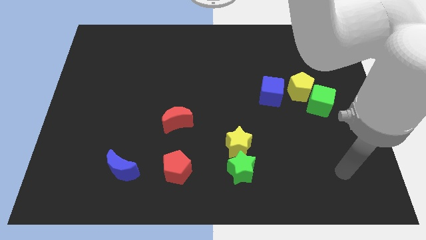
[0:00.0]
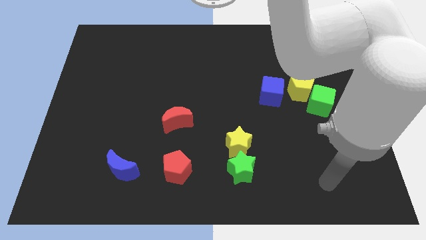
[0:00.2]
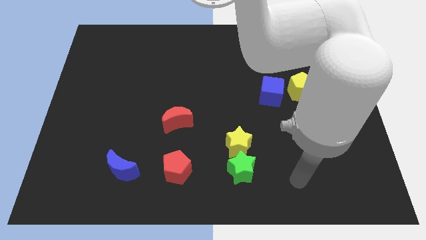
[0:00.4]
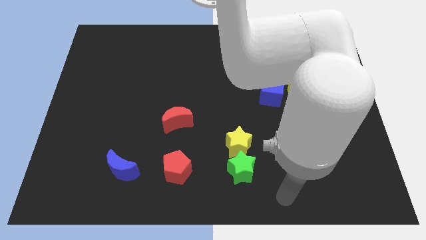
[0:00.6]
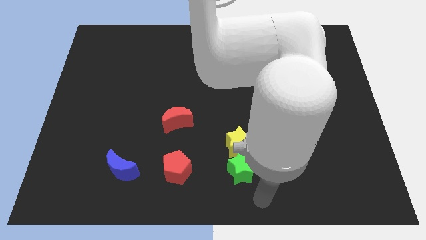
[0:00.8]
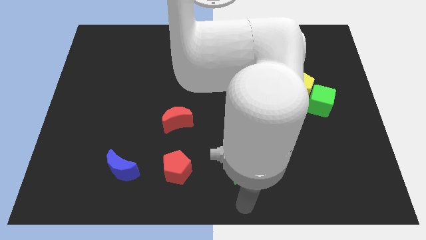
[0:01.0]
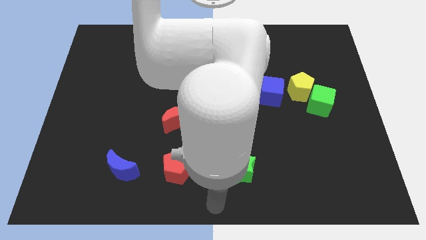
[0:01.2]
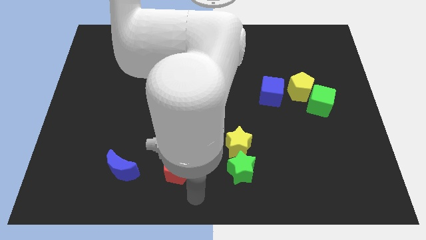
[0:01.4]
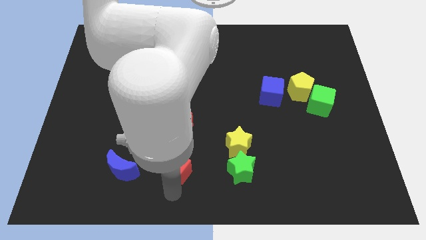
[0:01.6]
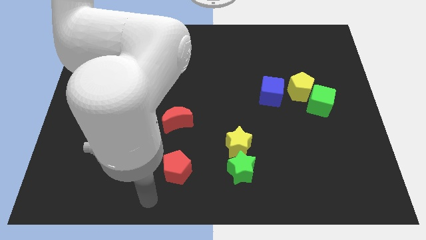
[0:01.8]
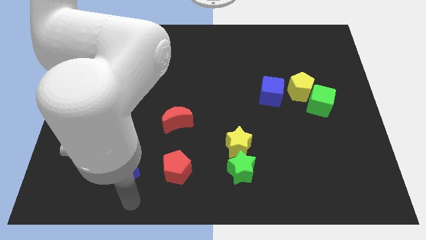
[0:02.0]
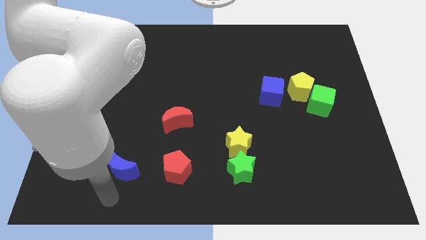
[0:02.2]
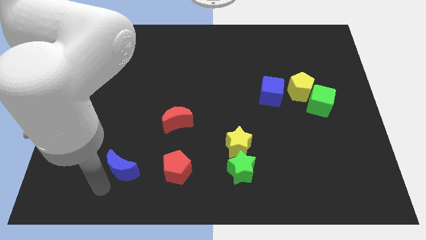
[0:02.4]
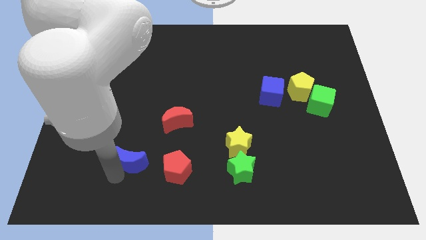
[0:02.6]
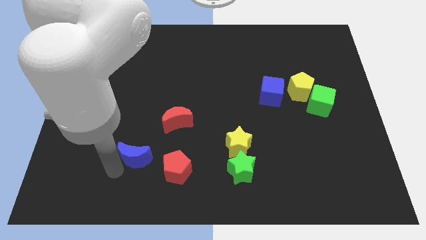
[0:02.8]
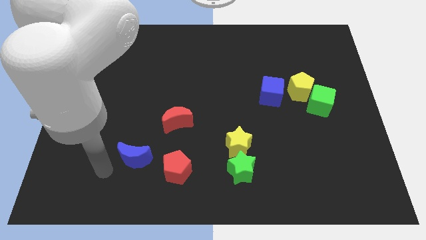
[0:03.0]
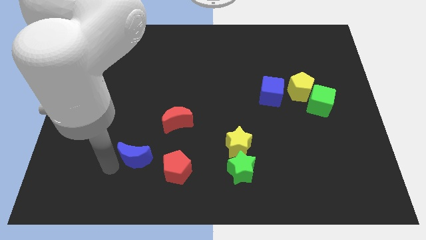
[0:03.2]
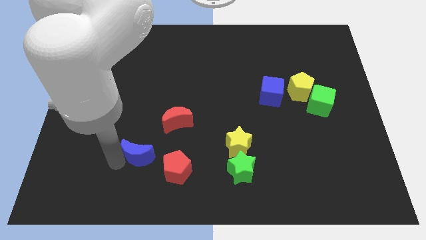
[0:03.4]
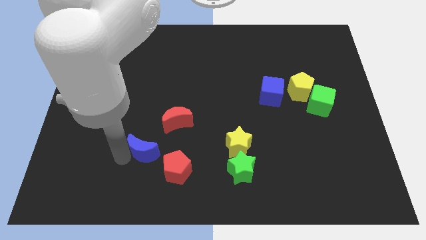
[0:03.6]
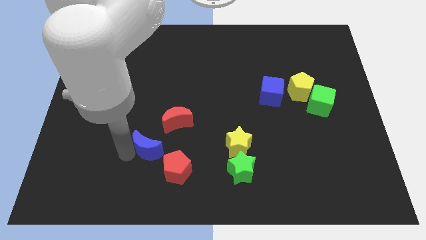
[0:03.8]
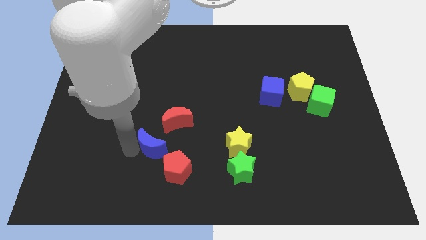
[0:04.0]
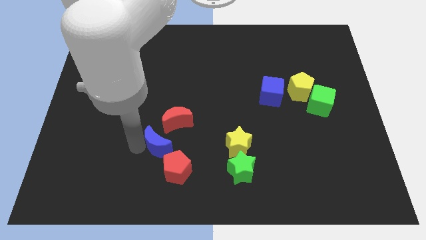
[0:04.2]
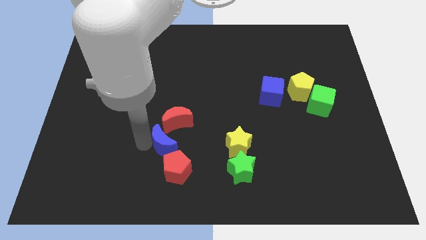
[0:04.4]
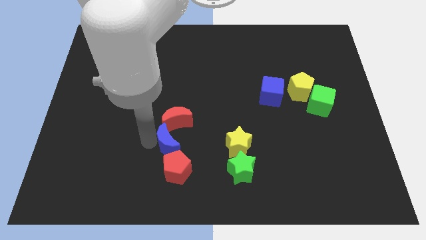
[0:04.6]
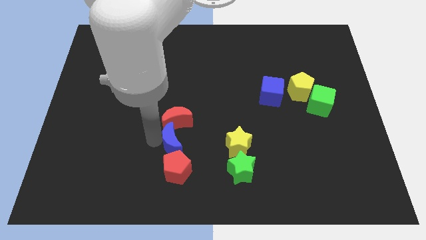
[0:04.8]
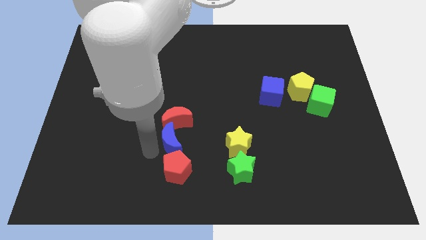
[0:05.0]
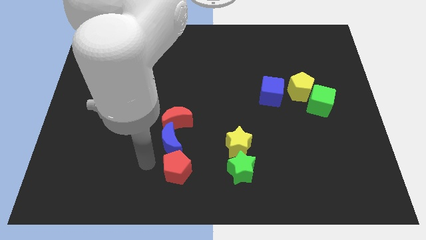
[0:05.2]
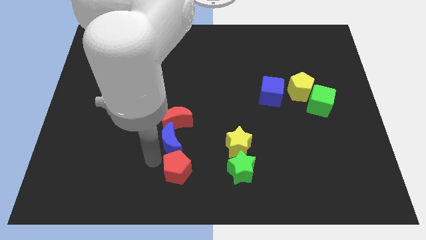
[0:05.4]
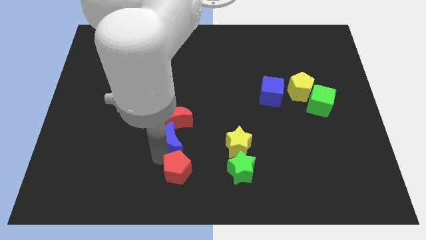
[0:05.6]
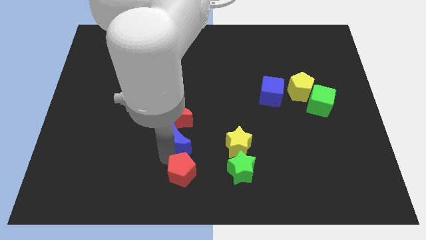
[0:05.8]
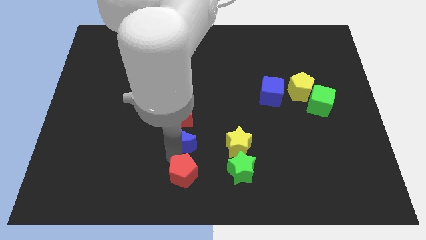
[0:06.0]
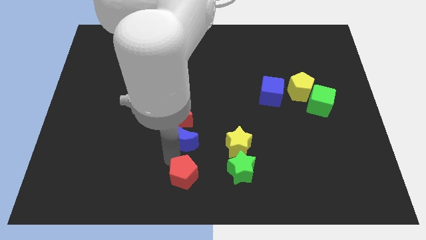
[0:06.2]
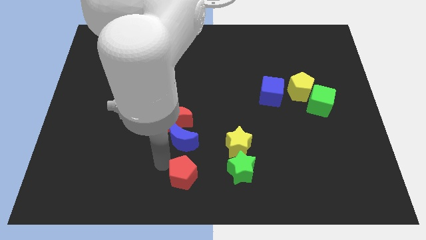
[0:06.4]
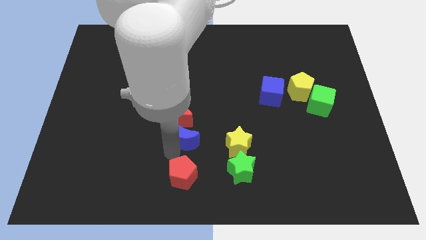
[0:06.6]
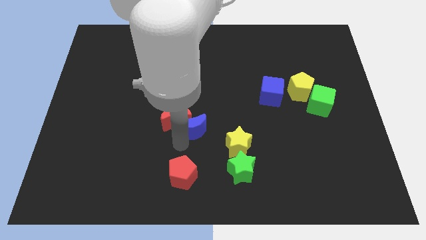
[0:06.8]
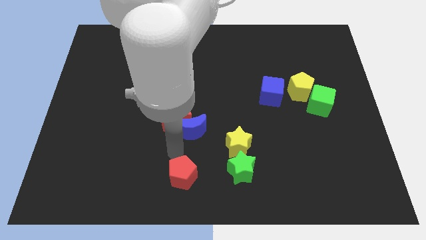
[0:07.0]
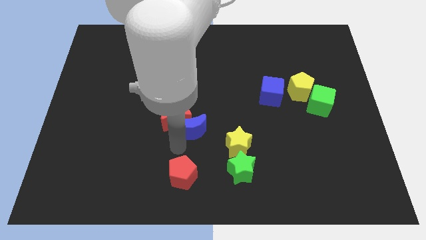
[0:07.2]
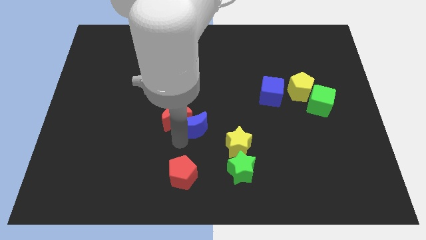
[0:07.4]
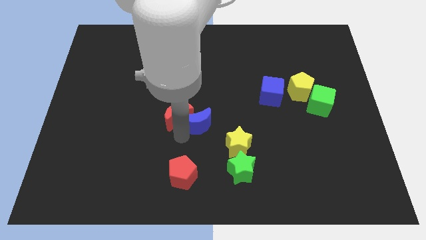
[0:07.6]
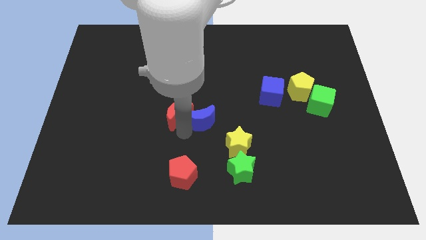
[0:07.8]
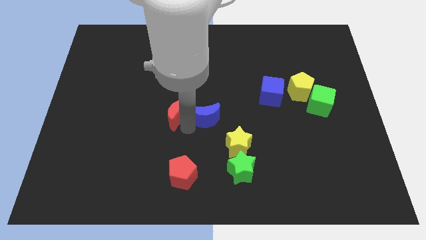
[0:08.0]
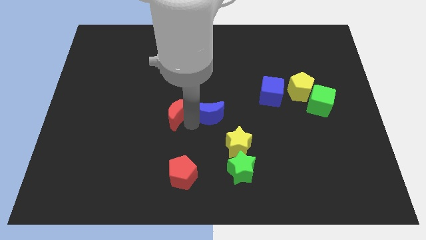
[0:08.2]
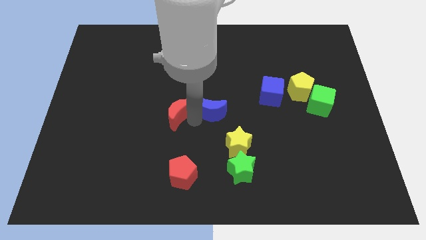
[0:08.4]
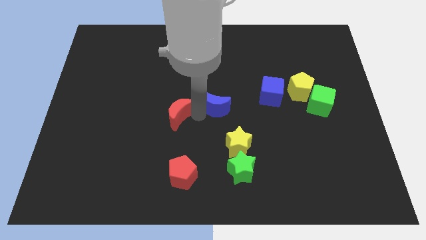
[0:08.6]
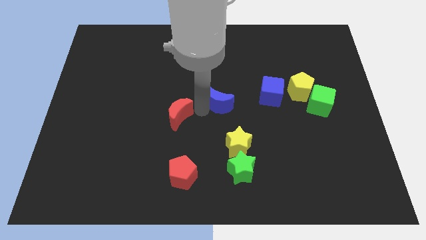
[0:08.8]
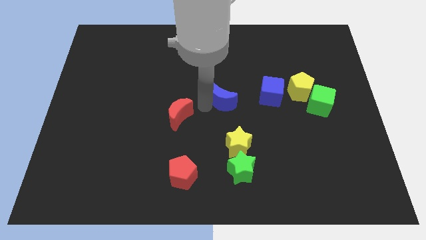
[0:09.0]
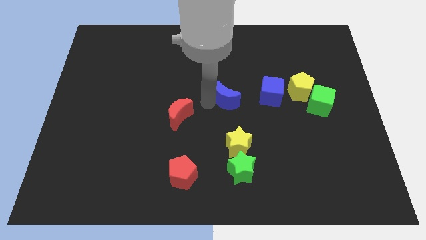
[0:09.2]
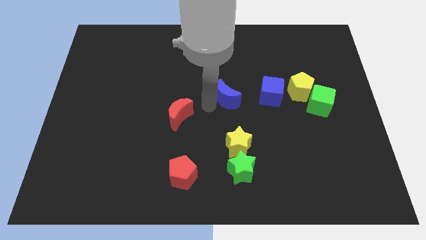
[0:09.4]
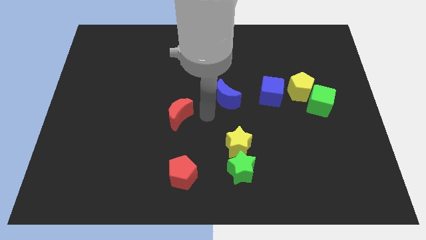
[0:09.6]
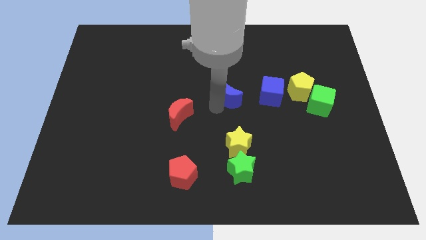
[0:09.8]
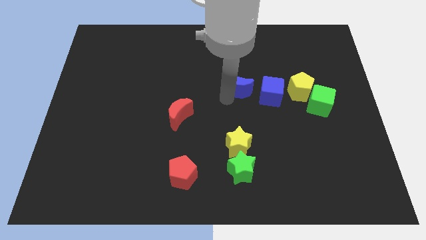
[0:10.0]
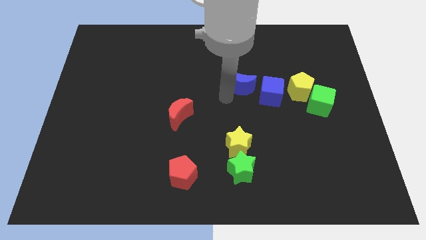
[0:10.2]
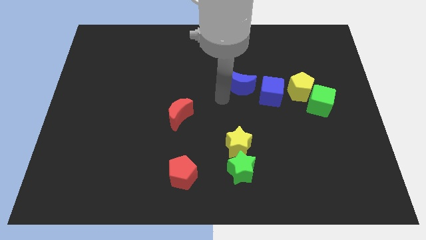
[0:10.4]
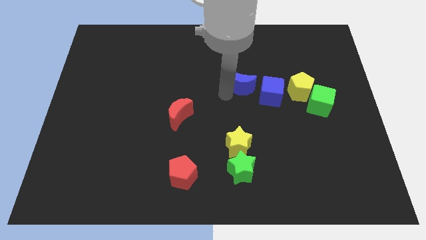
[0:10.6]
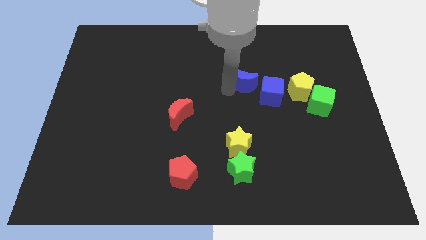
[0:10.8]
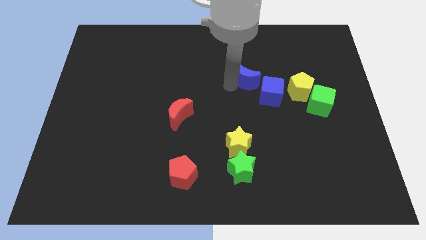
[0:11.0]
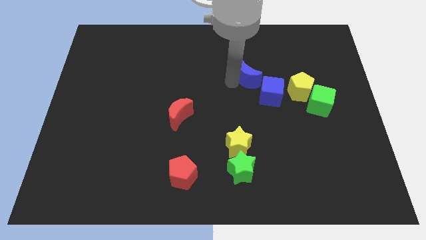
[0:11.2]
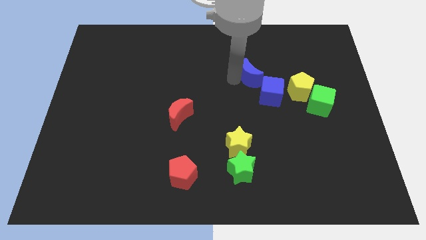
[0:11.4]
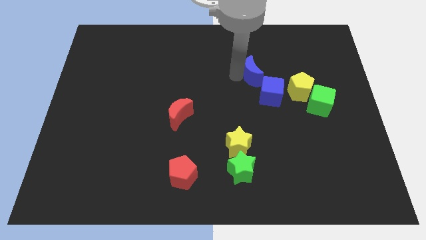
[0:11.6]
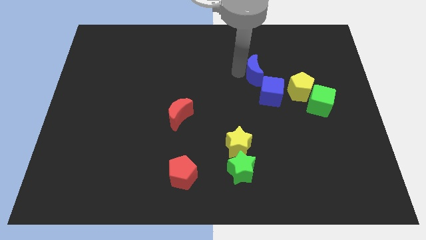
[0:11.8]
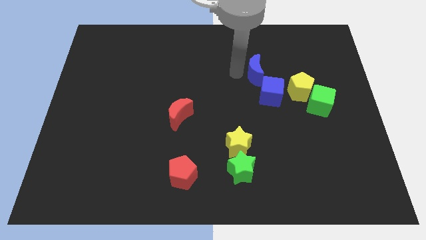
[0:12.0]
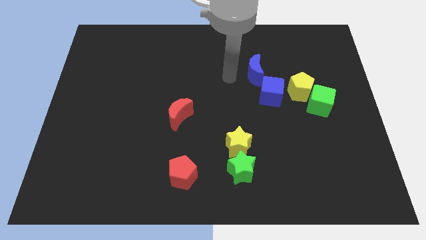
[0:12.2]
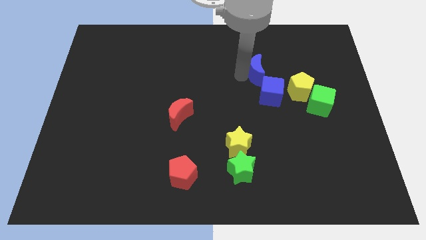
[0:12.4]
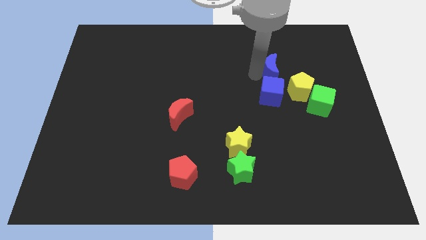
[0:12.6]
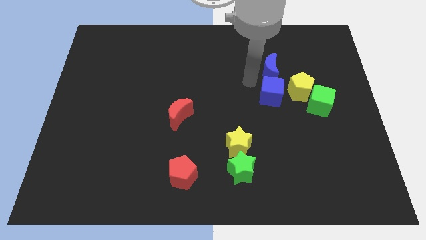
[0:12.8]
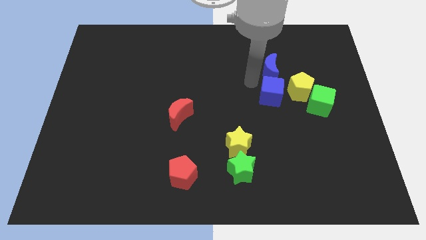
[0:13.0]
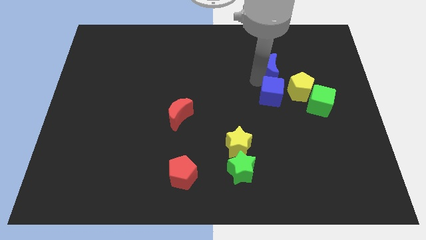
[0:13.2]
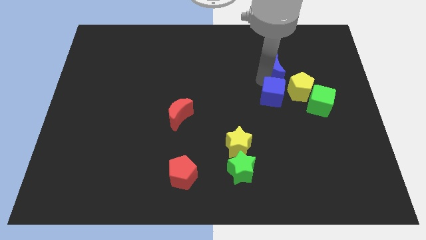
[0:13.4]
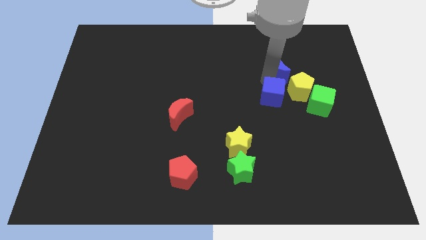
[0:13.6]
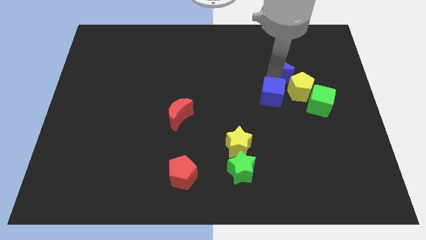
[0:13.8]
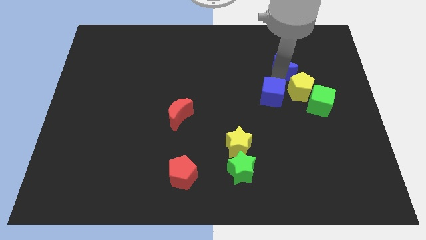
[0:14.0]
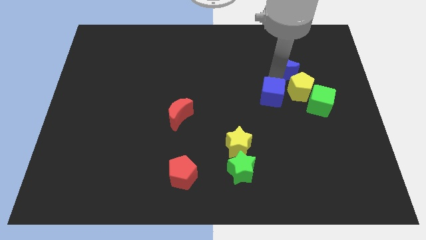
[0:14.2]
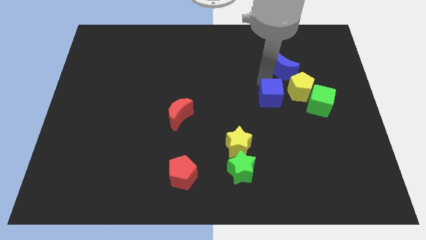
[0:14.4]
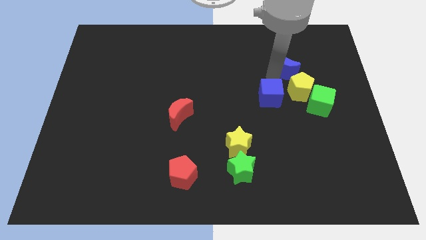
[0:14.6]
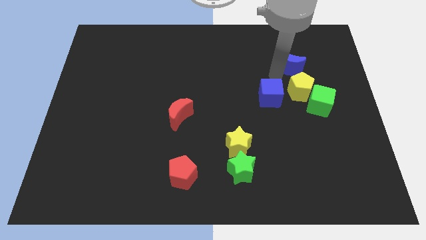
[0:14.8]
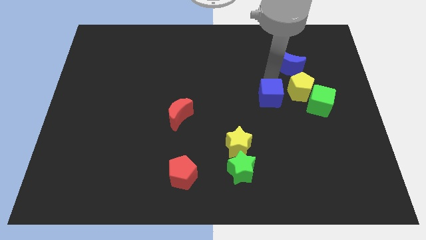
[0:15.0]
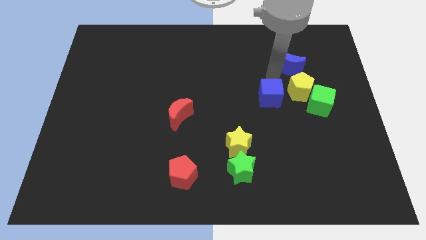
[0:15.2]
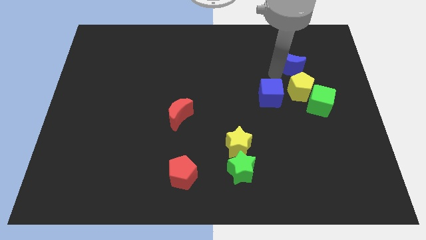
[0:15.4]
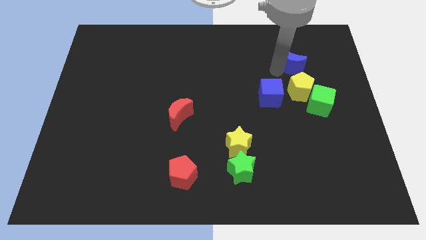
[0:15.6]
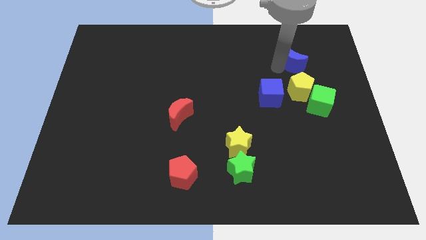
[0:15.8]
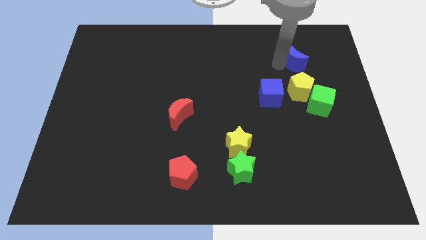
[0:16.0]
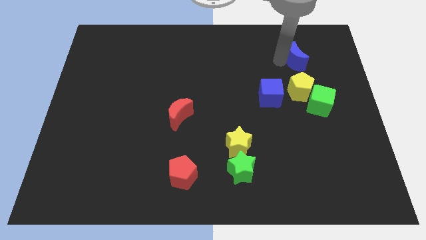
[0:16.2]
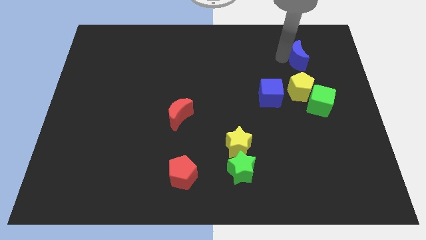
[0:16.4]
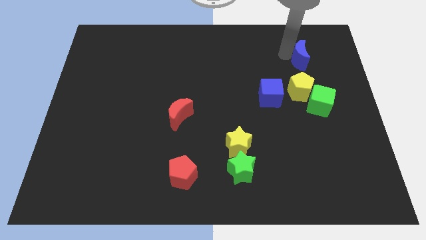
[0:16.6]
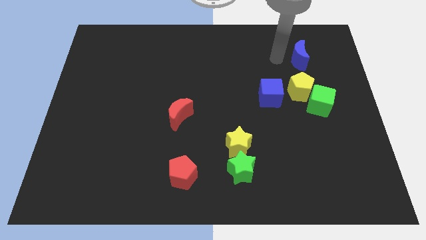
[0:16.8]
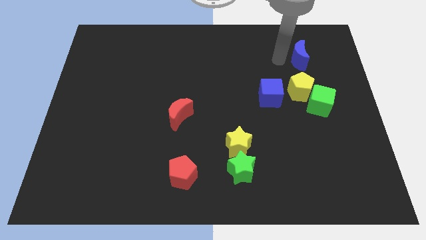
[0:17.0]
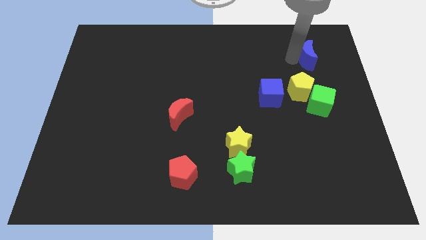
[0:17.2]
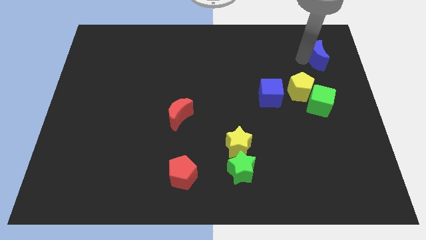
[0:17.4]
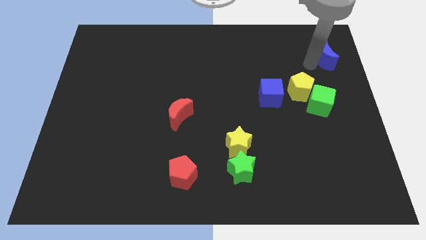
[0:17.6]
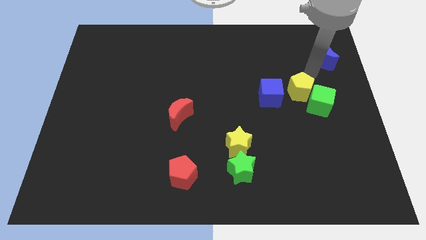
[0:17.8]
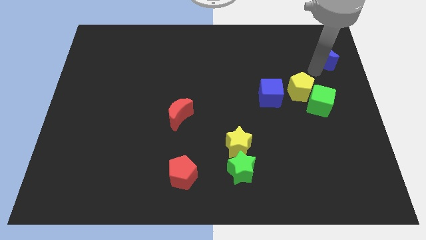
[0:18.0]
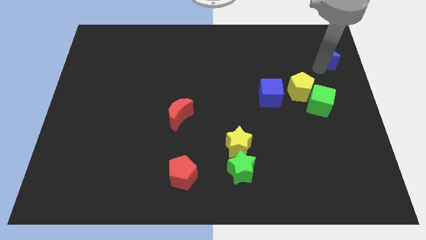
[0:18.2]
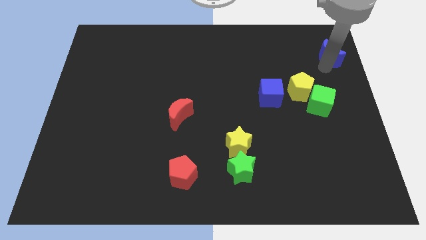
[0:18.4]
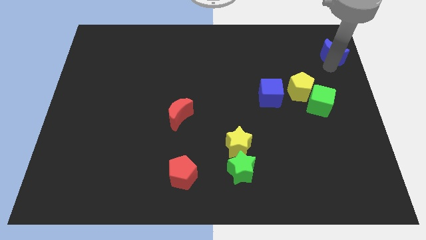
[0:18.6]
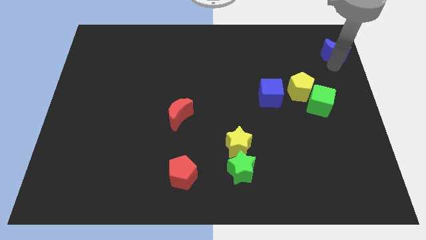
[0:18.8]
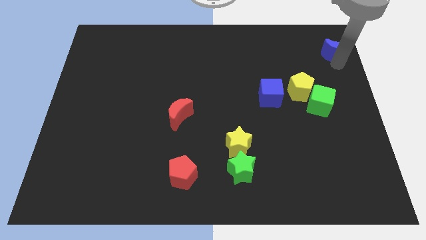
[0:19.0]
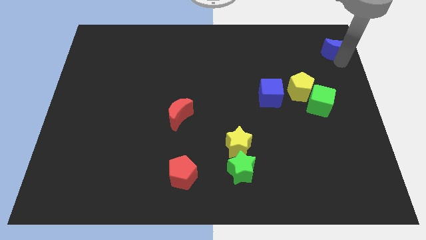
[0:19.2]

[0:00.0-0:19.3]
move the blue moon to the top right
